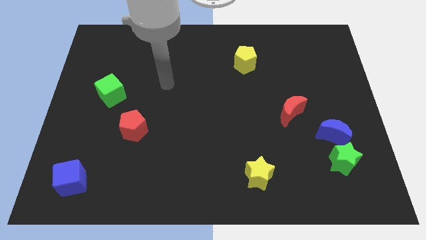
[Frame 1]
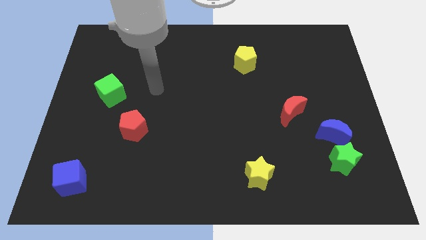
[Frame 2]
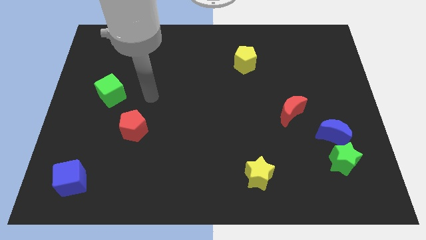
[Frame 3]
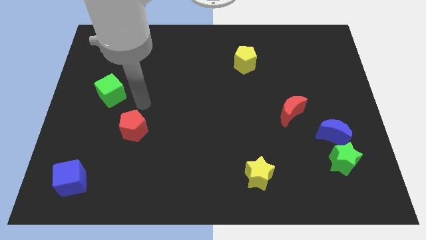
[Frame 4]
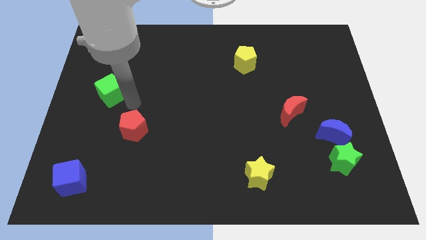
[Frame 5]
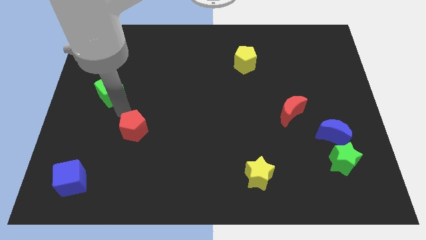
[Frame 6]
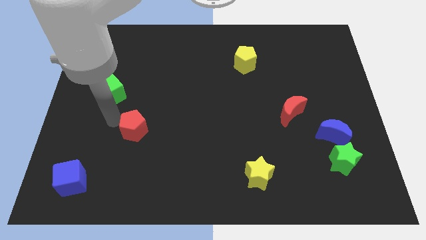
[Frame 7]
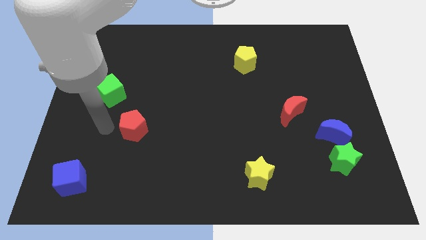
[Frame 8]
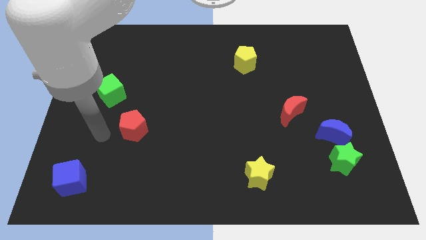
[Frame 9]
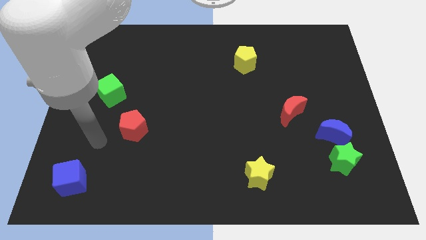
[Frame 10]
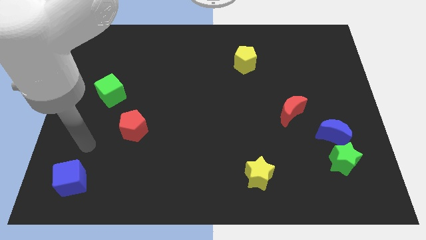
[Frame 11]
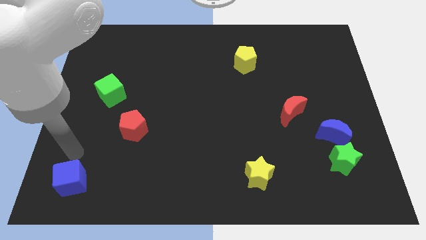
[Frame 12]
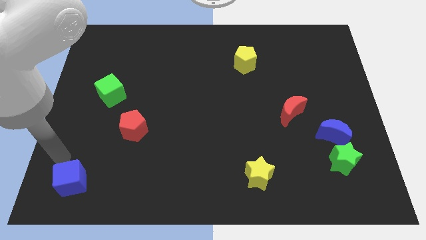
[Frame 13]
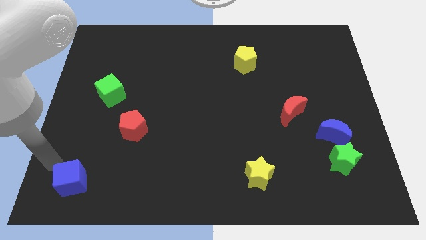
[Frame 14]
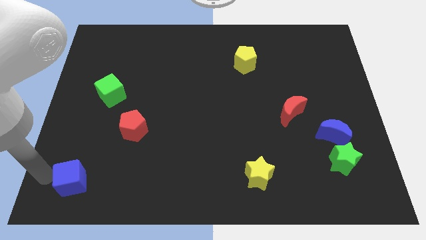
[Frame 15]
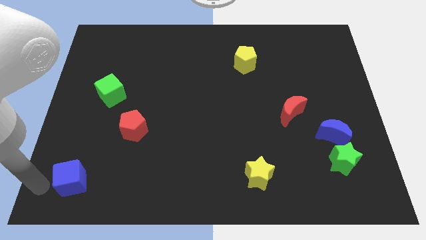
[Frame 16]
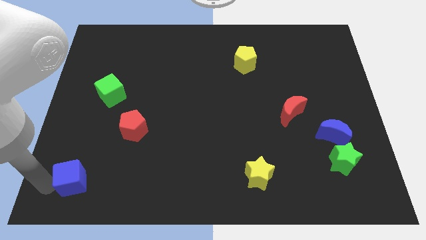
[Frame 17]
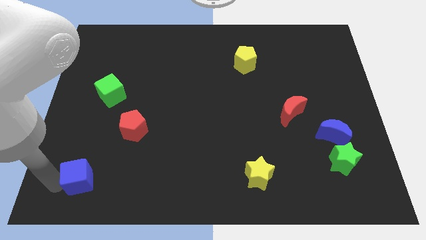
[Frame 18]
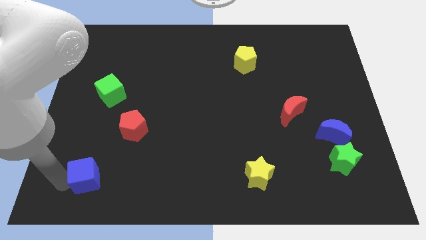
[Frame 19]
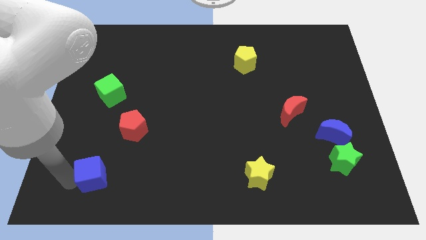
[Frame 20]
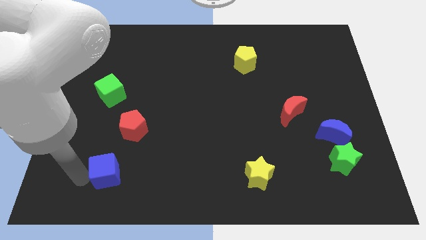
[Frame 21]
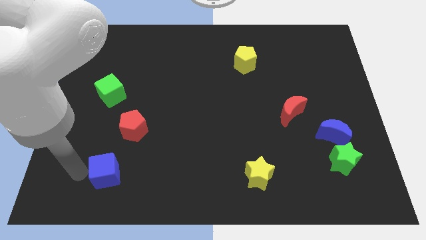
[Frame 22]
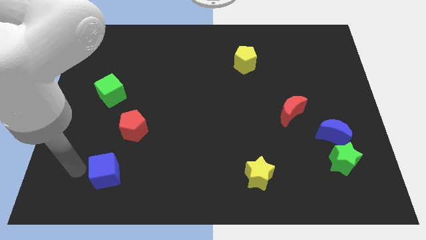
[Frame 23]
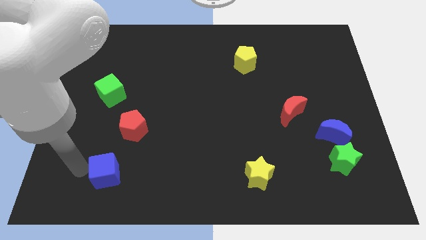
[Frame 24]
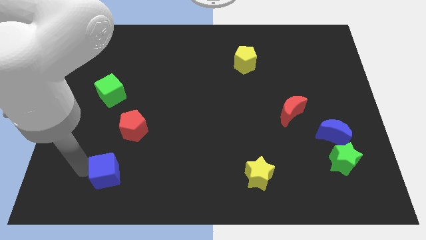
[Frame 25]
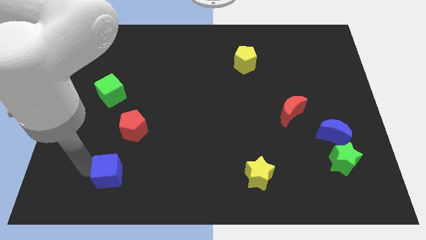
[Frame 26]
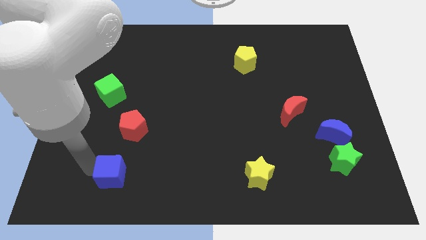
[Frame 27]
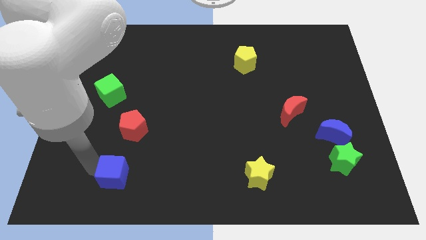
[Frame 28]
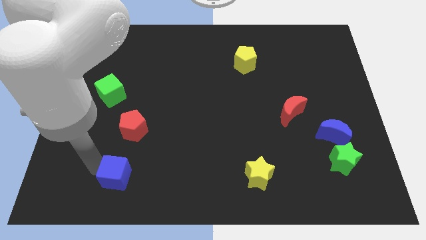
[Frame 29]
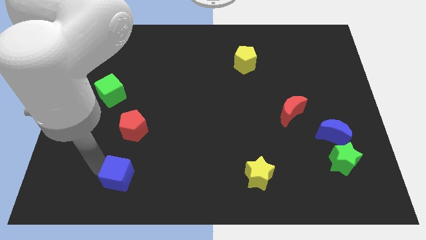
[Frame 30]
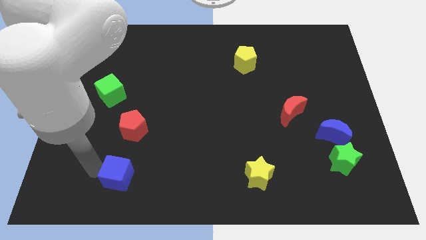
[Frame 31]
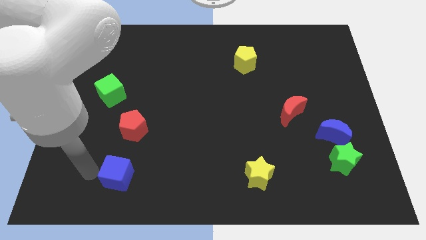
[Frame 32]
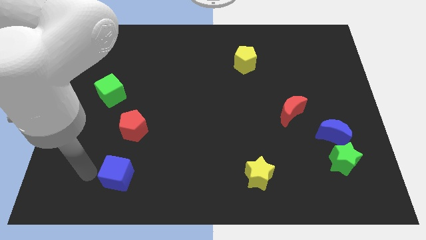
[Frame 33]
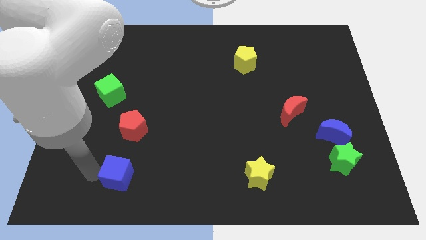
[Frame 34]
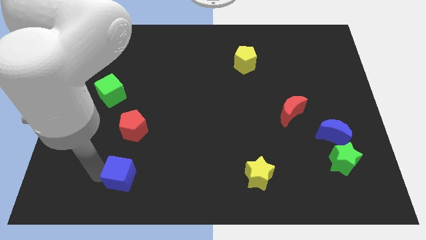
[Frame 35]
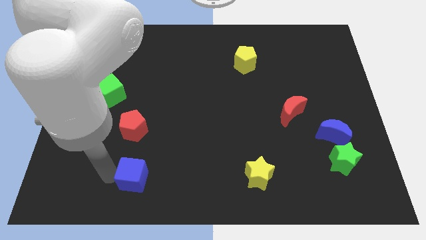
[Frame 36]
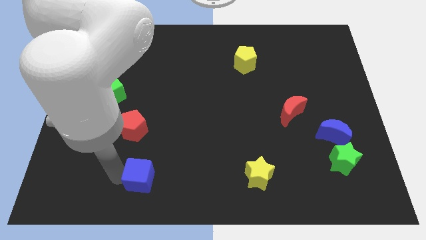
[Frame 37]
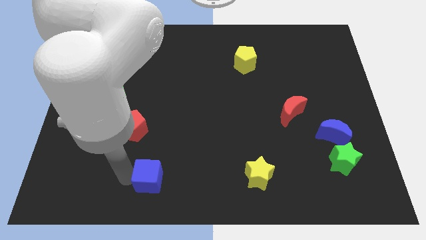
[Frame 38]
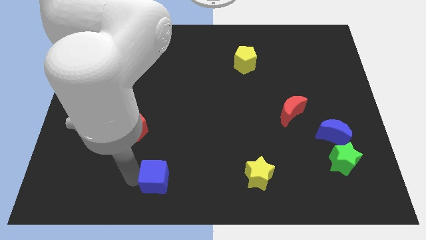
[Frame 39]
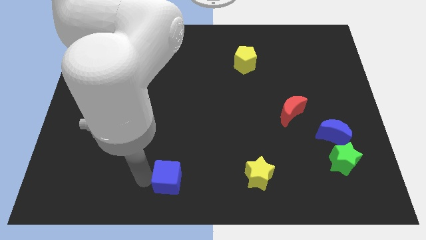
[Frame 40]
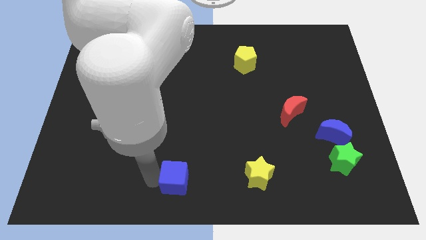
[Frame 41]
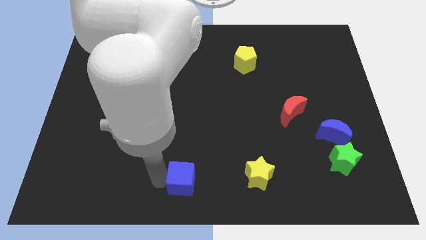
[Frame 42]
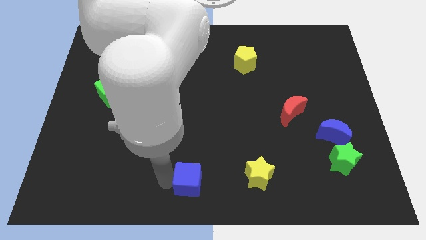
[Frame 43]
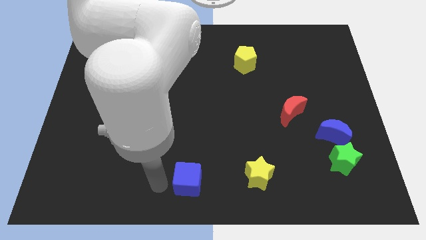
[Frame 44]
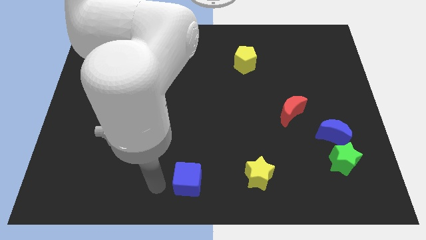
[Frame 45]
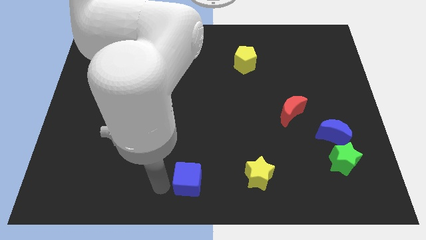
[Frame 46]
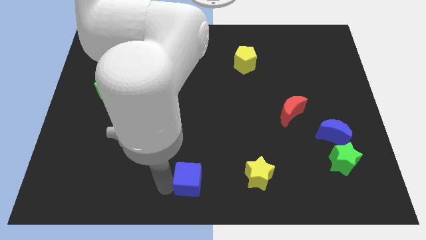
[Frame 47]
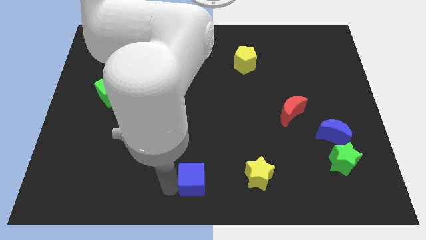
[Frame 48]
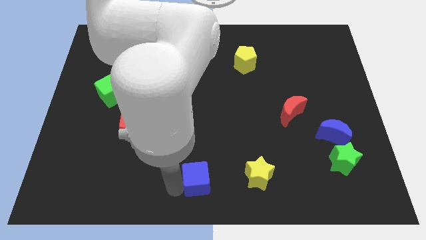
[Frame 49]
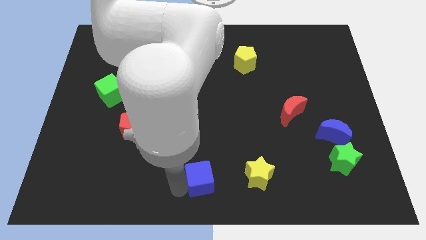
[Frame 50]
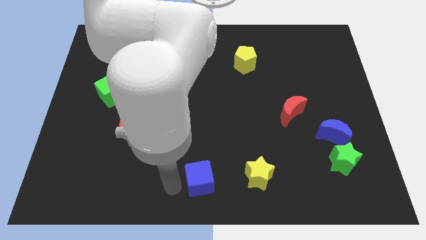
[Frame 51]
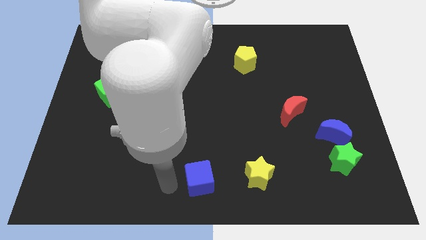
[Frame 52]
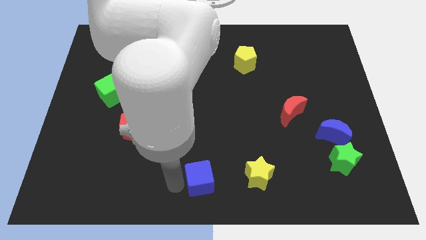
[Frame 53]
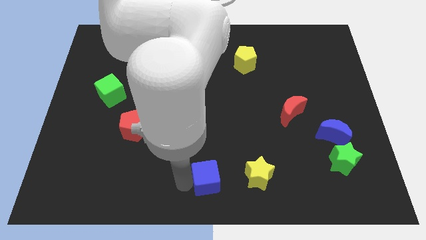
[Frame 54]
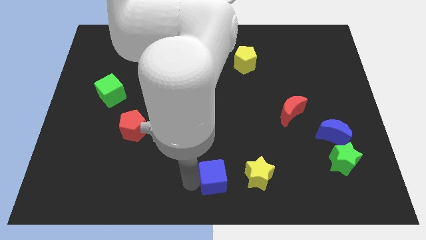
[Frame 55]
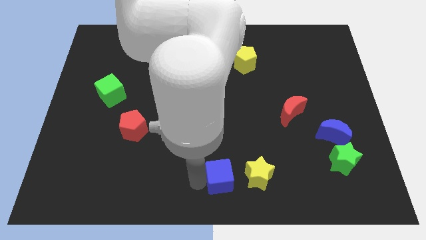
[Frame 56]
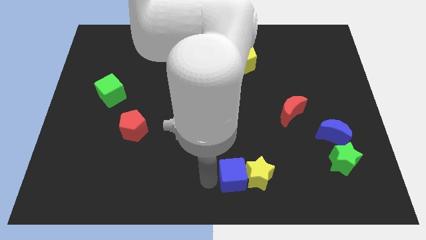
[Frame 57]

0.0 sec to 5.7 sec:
put the blue cube next to the yellow star

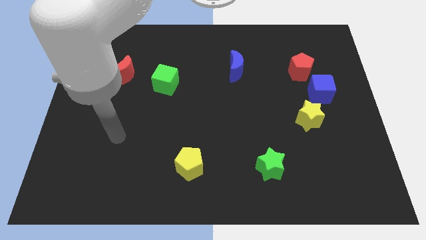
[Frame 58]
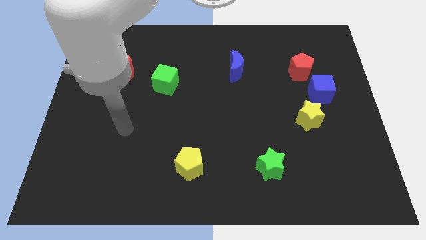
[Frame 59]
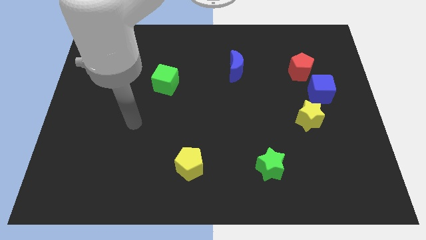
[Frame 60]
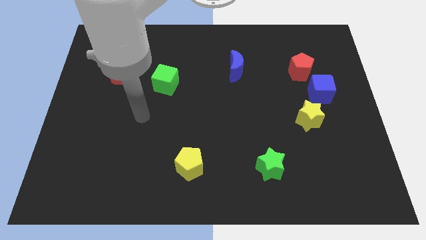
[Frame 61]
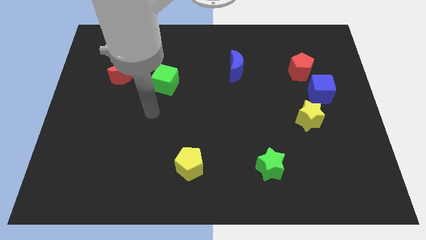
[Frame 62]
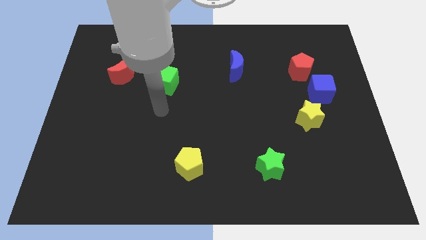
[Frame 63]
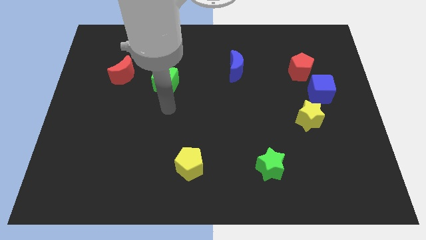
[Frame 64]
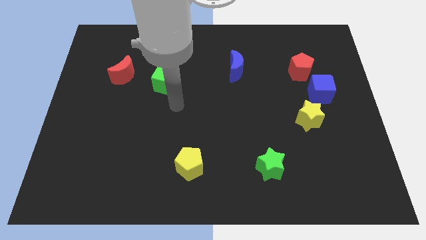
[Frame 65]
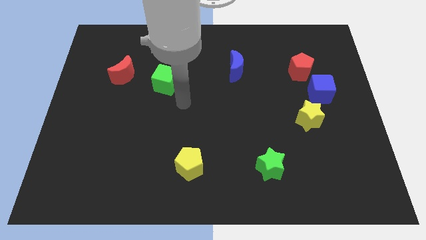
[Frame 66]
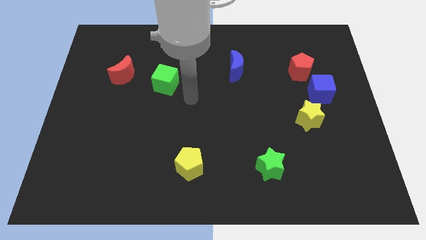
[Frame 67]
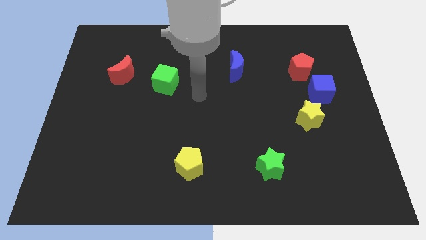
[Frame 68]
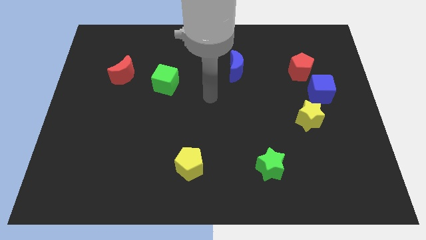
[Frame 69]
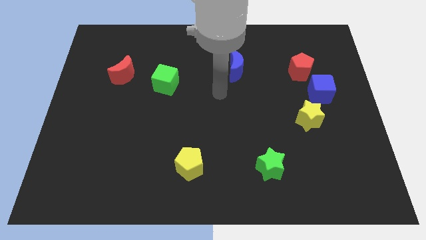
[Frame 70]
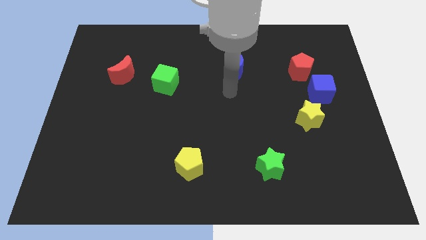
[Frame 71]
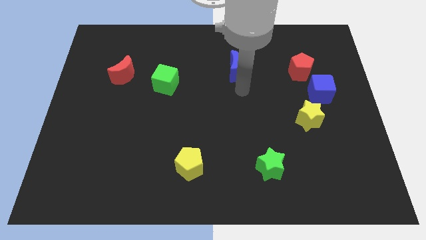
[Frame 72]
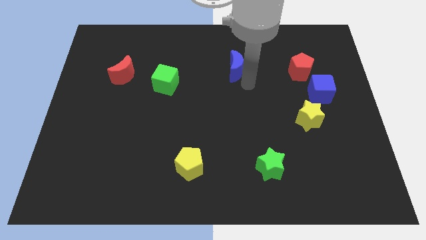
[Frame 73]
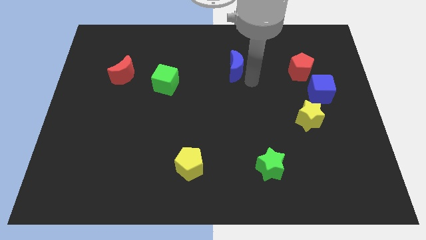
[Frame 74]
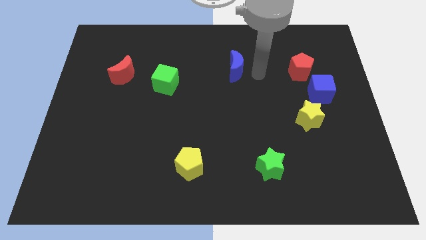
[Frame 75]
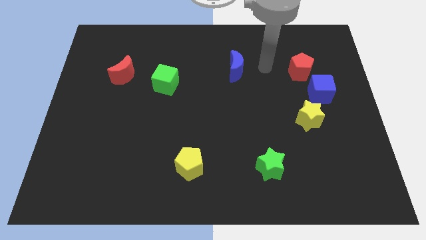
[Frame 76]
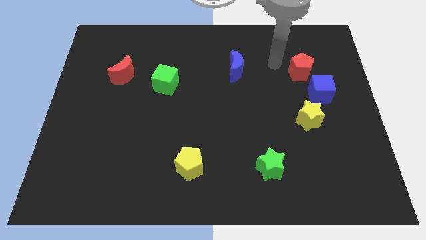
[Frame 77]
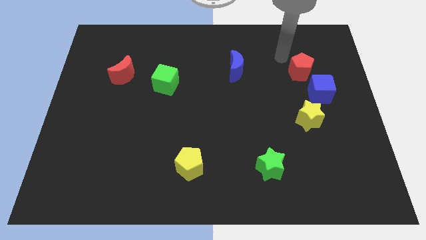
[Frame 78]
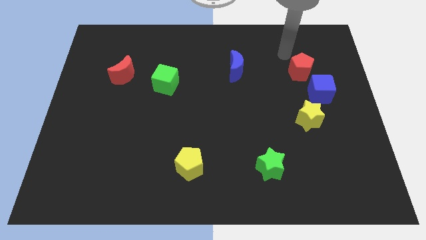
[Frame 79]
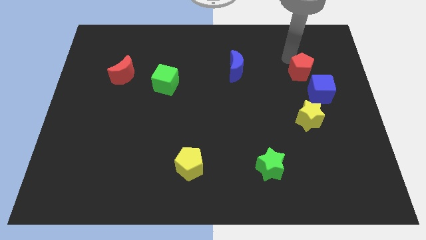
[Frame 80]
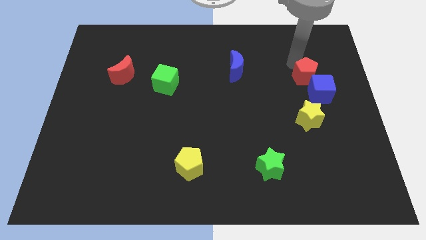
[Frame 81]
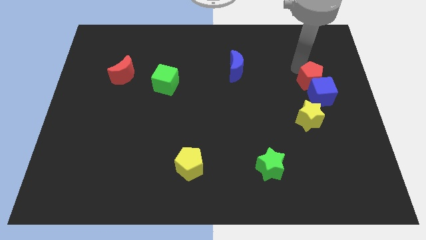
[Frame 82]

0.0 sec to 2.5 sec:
put the red pentagon next to the blue cube
